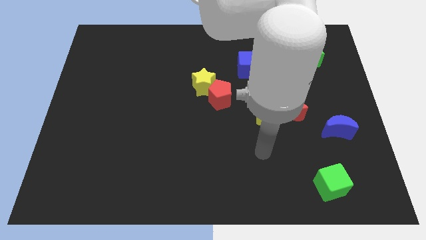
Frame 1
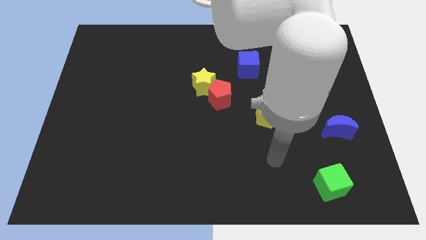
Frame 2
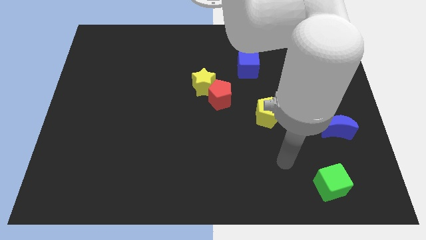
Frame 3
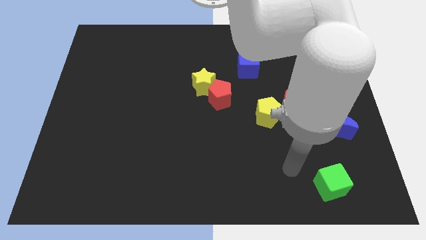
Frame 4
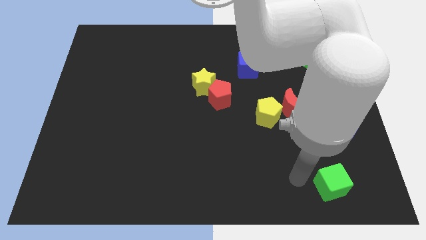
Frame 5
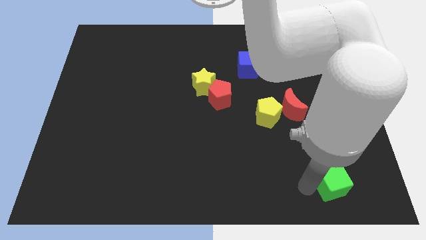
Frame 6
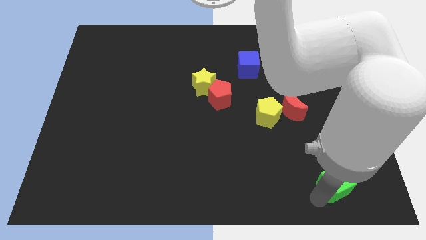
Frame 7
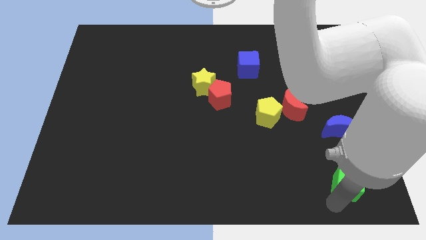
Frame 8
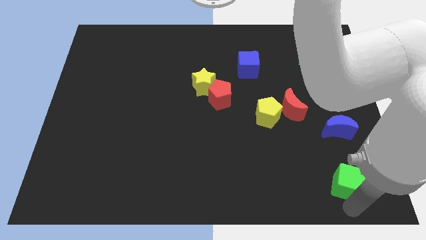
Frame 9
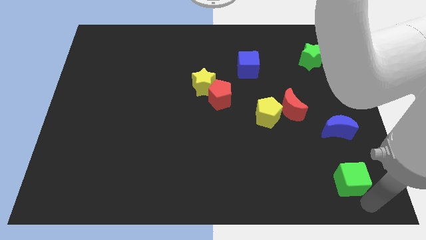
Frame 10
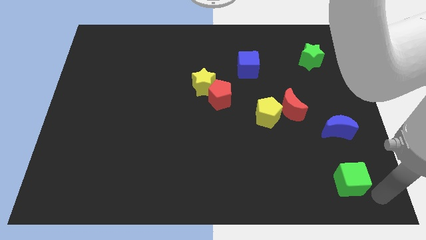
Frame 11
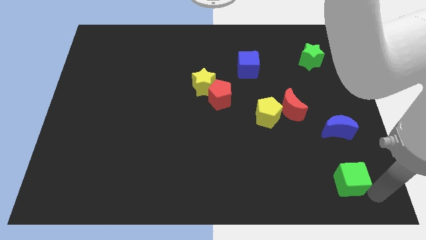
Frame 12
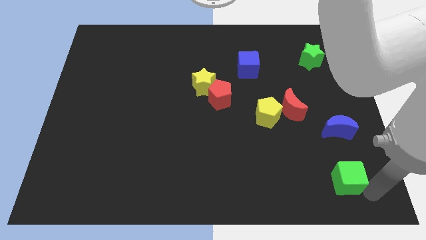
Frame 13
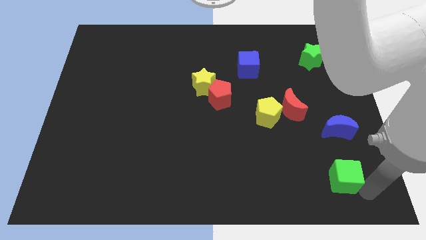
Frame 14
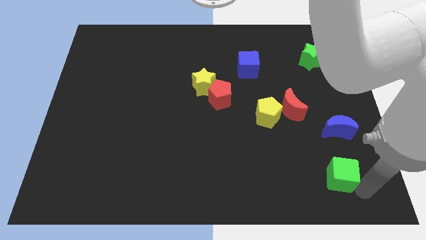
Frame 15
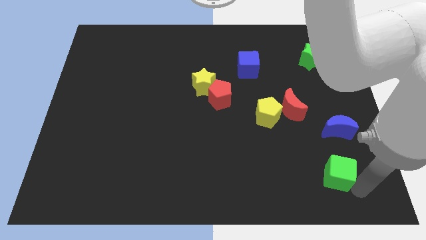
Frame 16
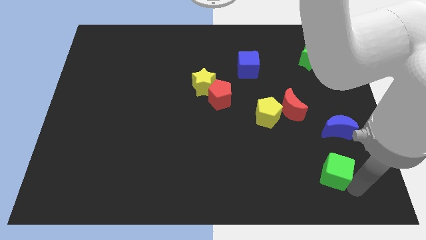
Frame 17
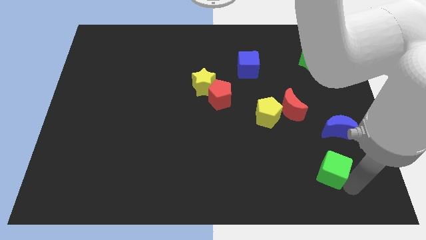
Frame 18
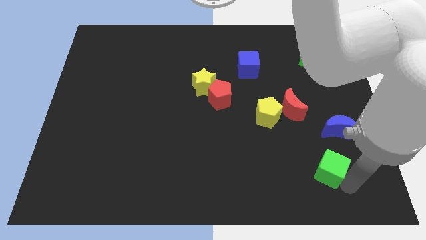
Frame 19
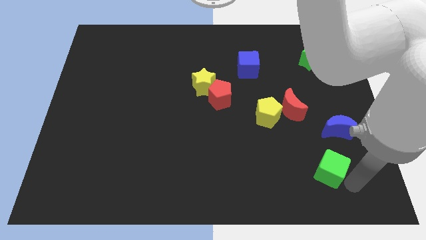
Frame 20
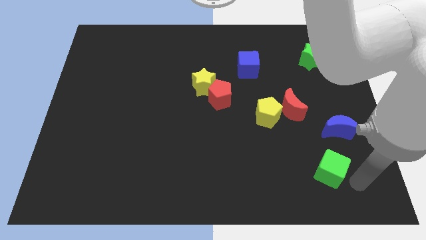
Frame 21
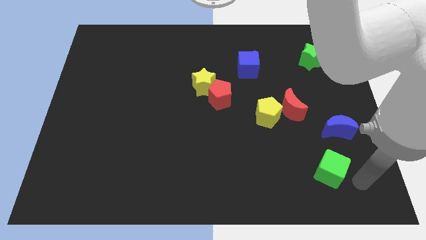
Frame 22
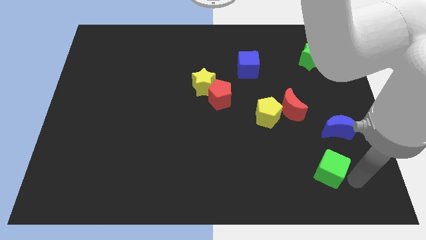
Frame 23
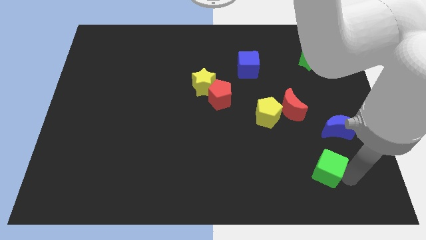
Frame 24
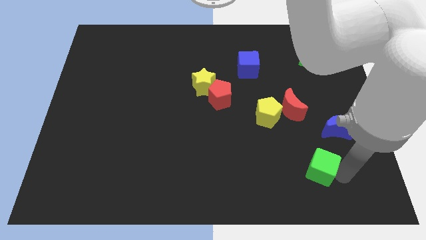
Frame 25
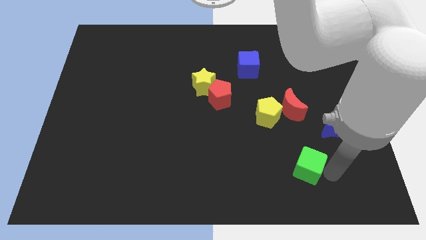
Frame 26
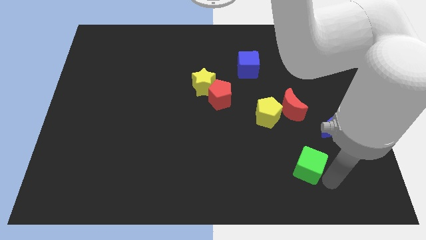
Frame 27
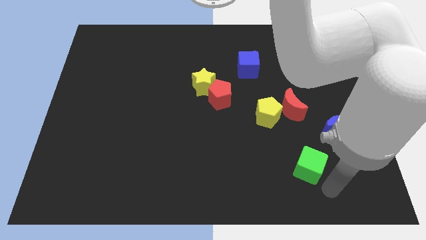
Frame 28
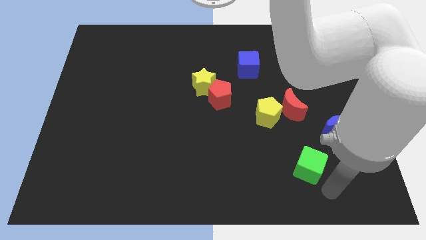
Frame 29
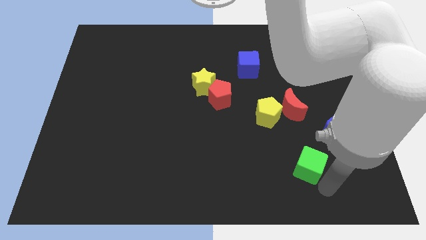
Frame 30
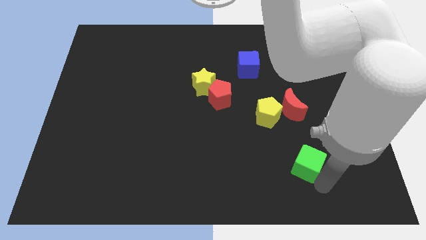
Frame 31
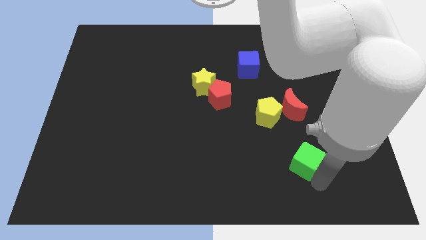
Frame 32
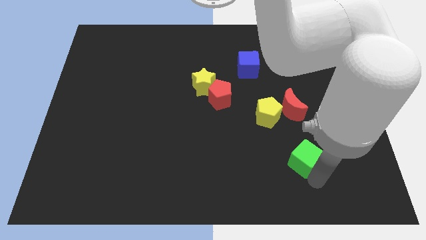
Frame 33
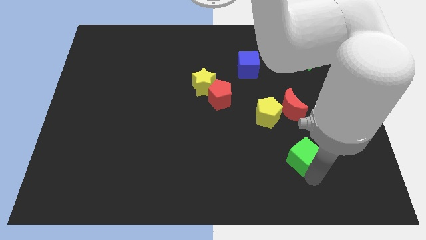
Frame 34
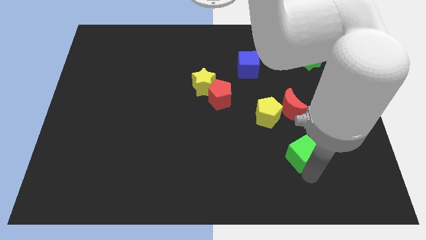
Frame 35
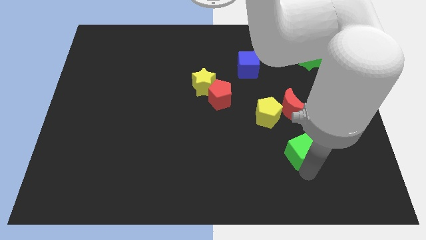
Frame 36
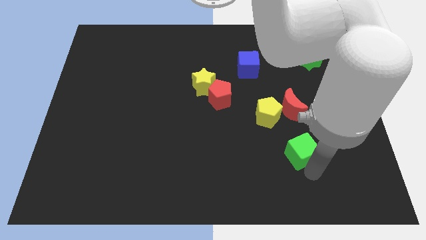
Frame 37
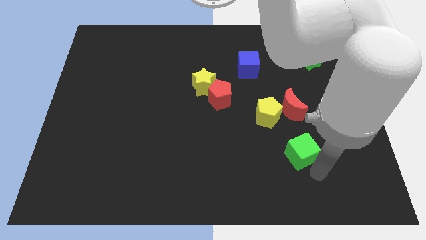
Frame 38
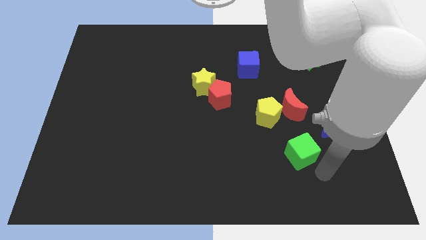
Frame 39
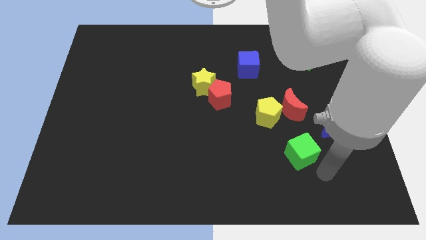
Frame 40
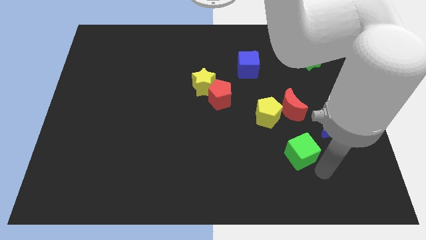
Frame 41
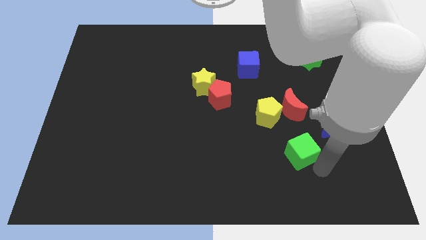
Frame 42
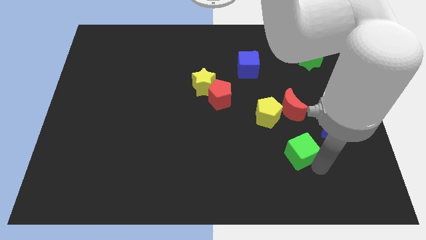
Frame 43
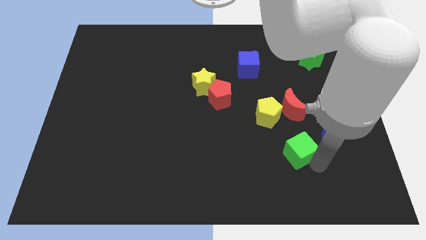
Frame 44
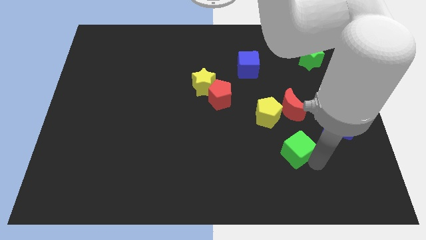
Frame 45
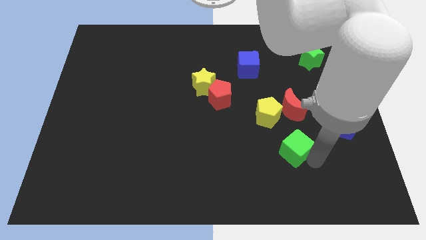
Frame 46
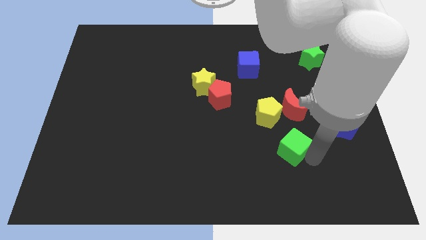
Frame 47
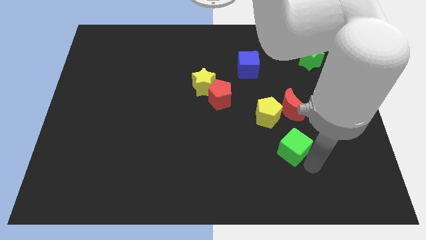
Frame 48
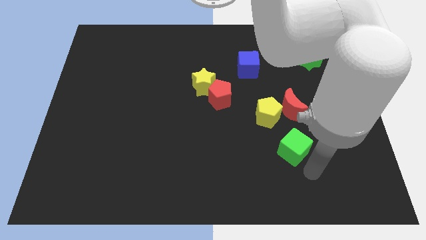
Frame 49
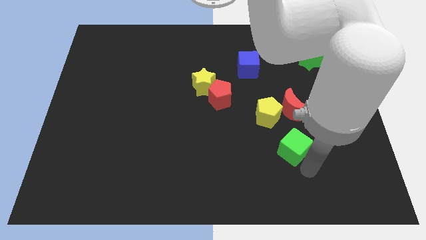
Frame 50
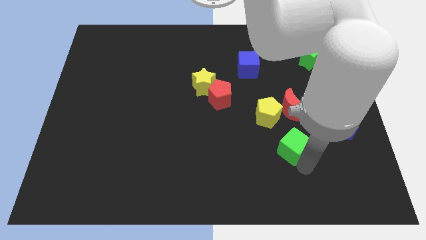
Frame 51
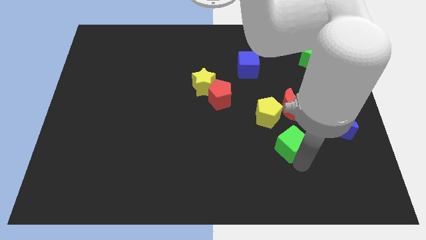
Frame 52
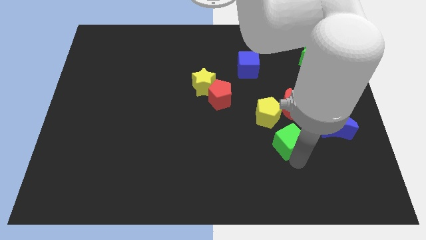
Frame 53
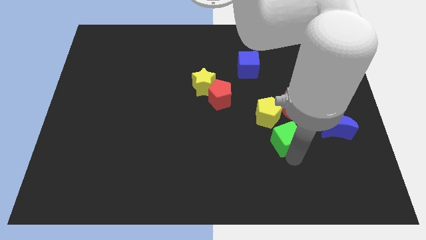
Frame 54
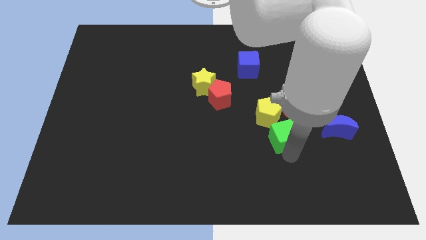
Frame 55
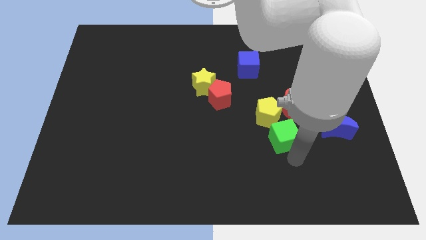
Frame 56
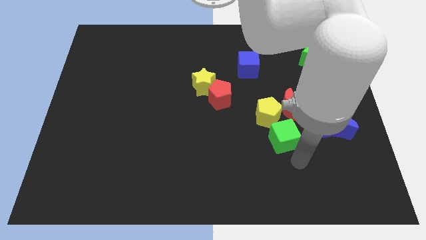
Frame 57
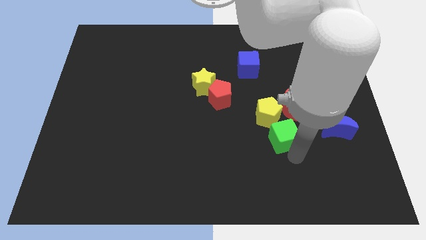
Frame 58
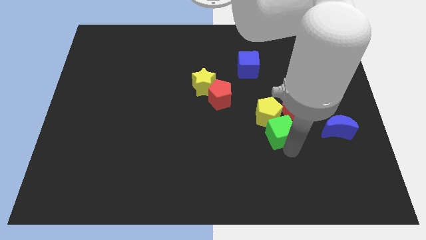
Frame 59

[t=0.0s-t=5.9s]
move the green cube next to the yellow pentagon

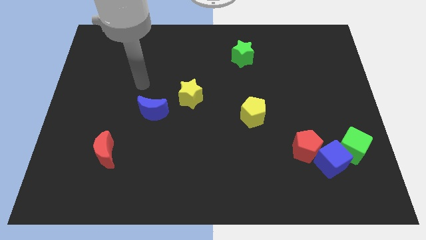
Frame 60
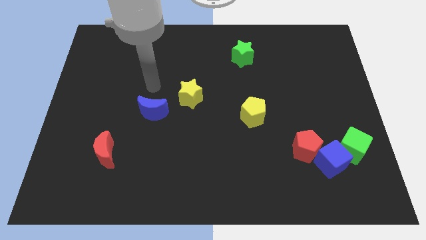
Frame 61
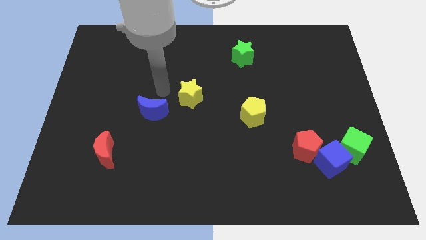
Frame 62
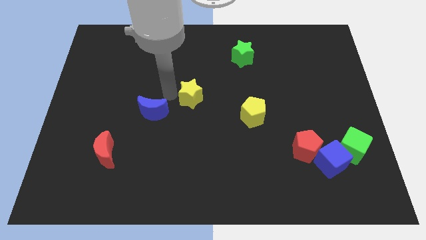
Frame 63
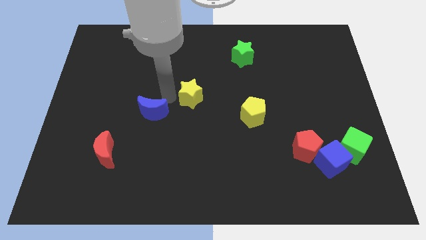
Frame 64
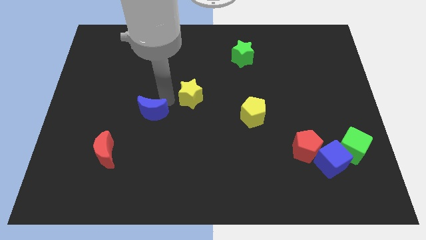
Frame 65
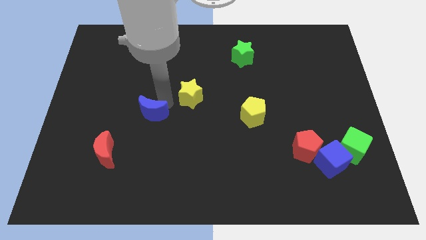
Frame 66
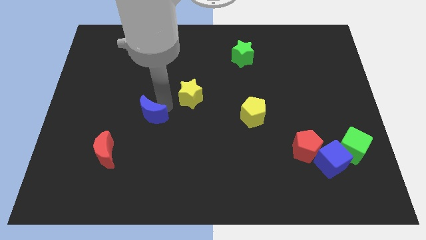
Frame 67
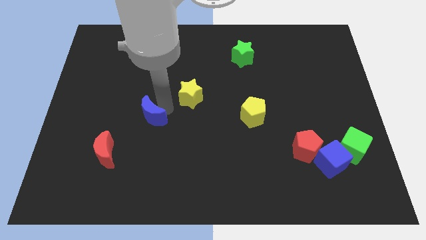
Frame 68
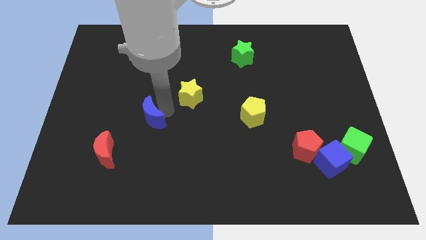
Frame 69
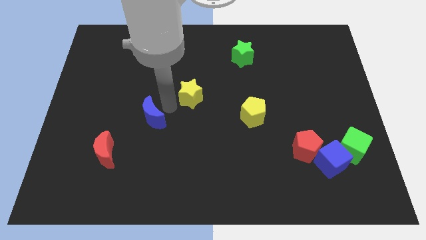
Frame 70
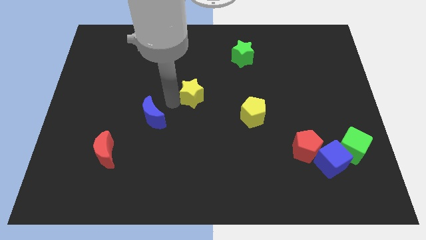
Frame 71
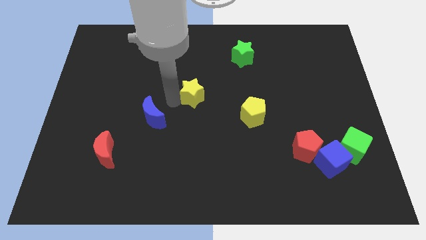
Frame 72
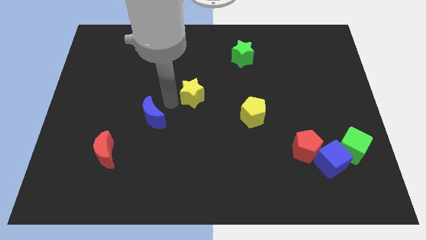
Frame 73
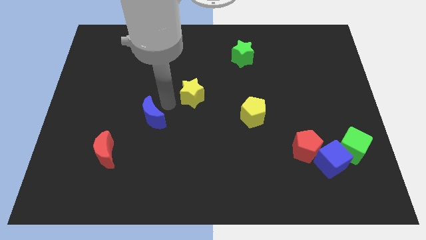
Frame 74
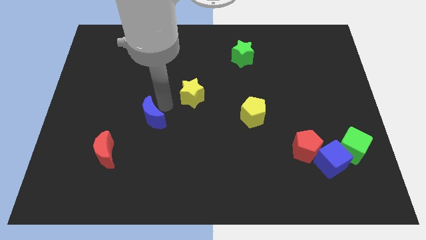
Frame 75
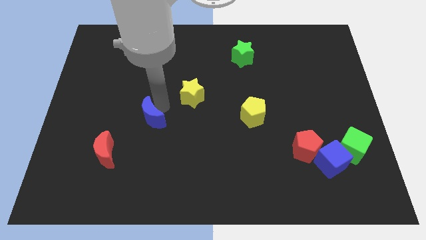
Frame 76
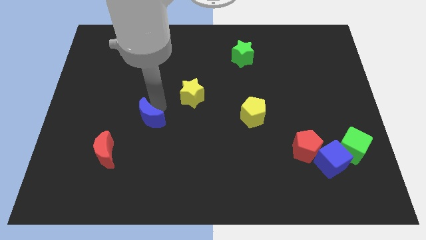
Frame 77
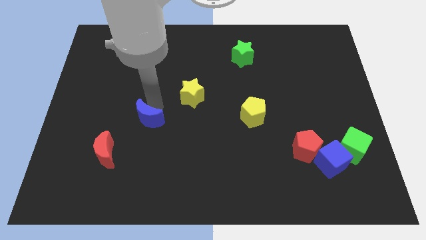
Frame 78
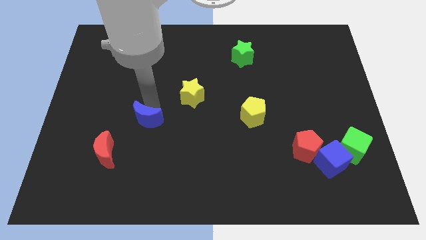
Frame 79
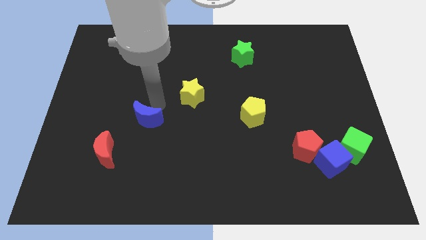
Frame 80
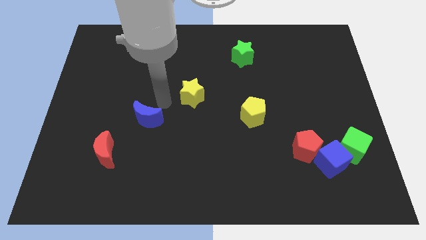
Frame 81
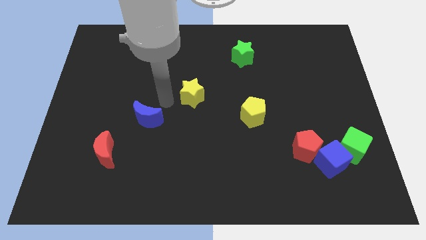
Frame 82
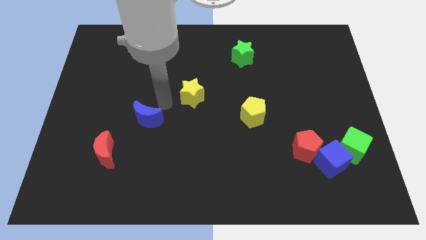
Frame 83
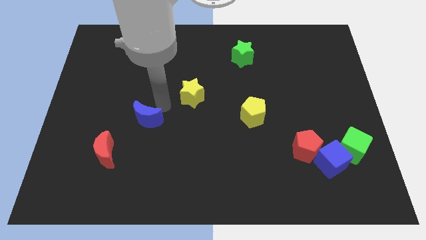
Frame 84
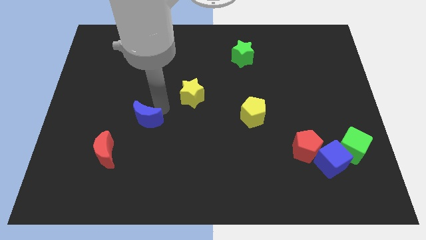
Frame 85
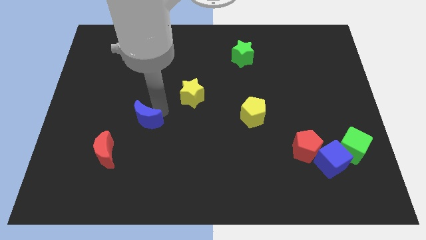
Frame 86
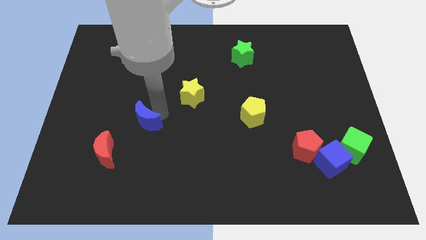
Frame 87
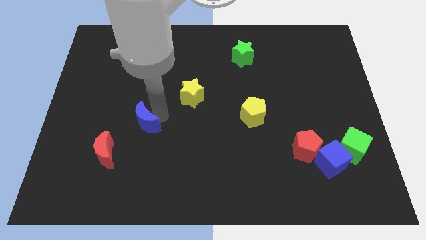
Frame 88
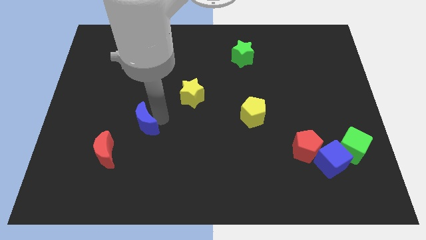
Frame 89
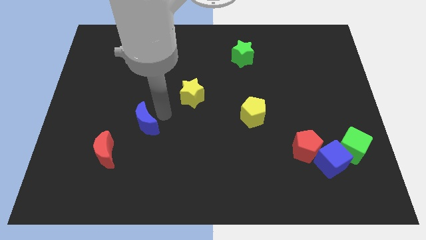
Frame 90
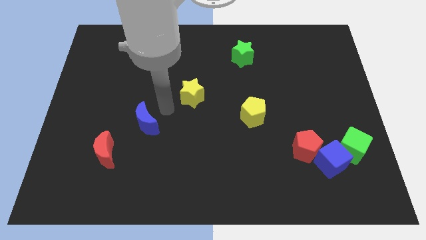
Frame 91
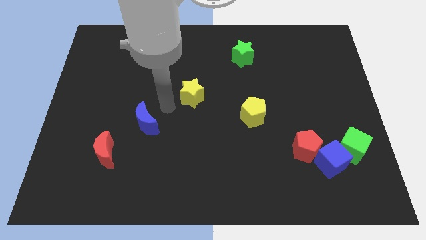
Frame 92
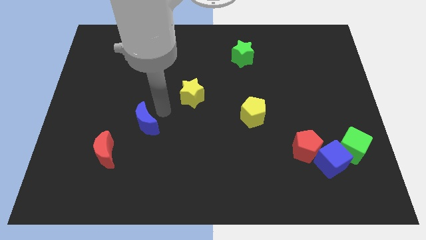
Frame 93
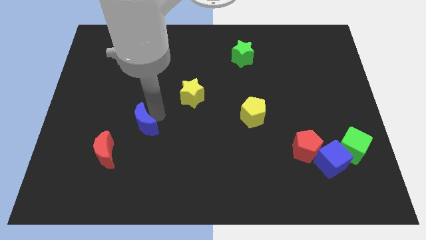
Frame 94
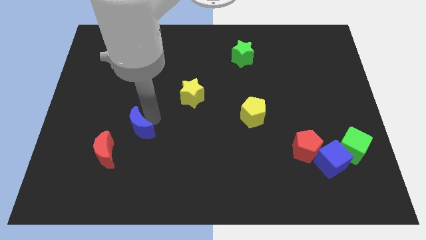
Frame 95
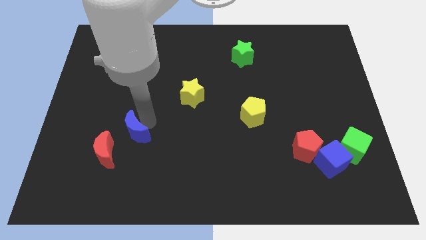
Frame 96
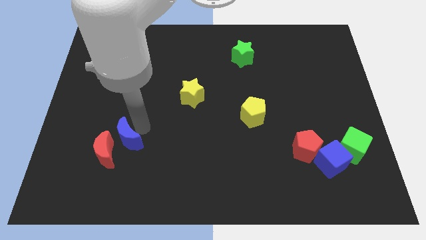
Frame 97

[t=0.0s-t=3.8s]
put the blue moon close to the red moon
